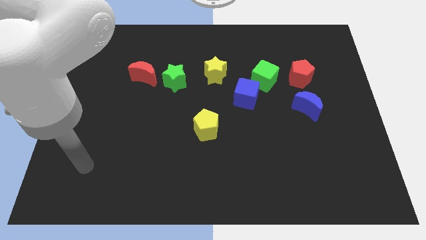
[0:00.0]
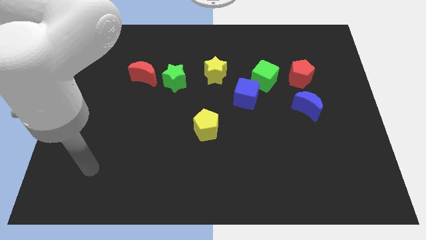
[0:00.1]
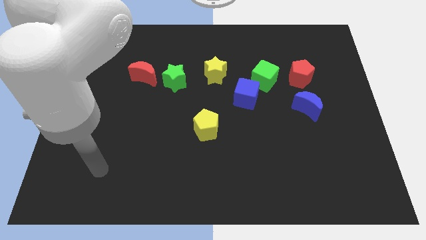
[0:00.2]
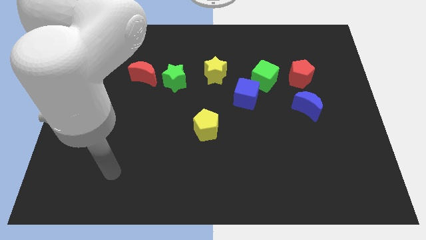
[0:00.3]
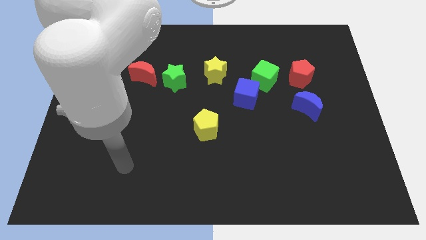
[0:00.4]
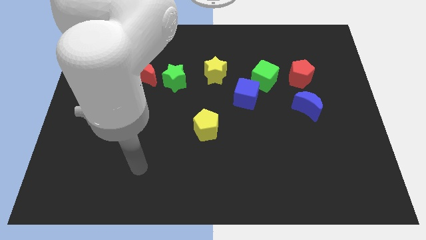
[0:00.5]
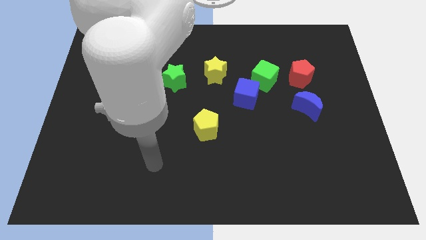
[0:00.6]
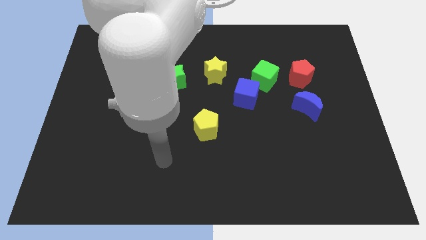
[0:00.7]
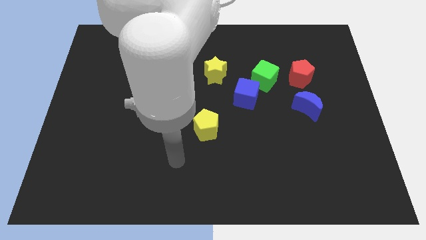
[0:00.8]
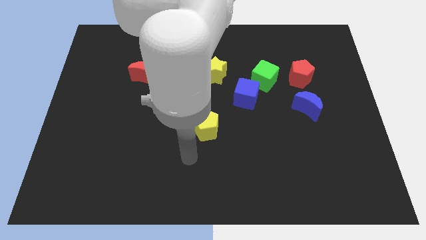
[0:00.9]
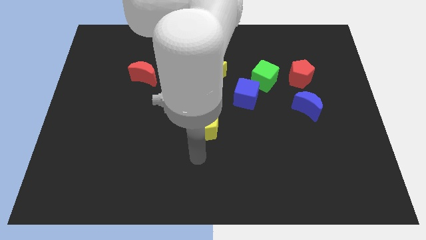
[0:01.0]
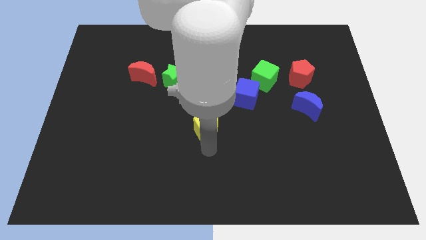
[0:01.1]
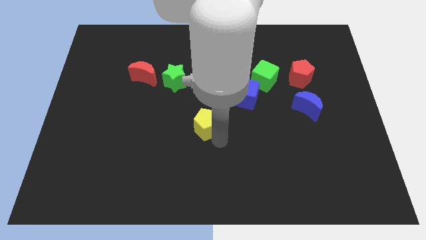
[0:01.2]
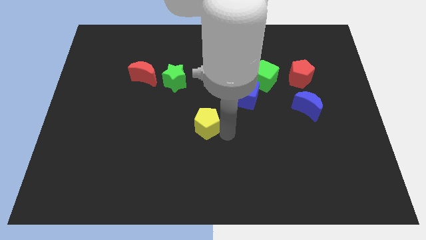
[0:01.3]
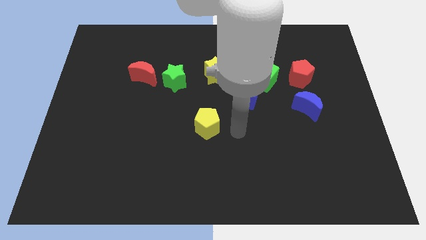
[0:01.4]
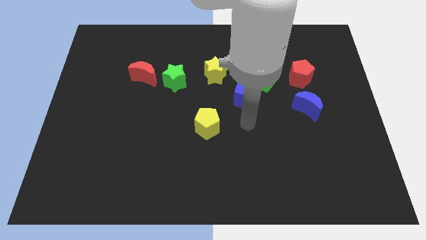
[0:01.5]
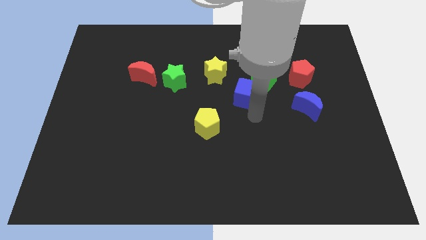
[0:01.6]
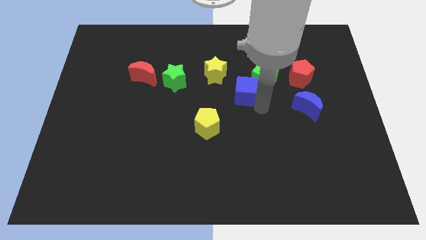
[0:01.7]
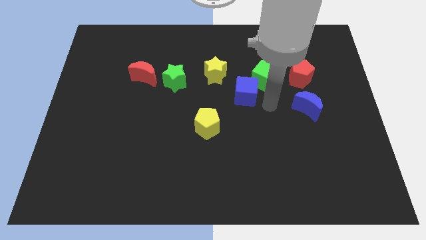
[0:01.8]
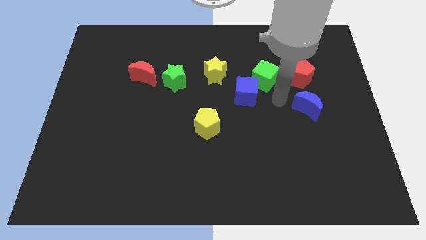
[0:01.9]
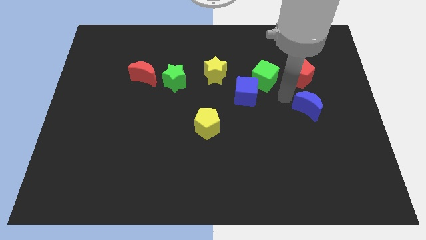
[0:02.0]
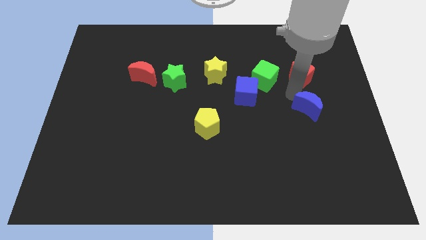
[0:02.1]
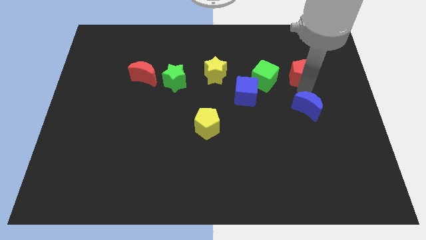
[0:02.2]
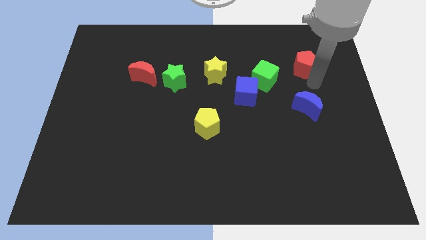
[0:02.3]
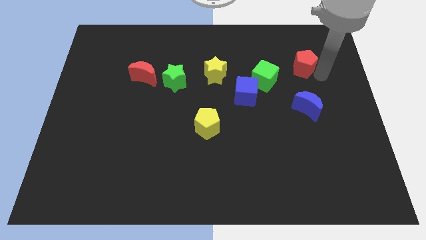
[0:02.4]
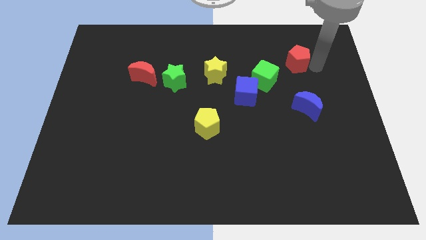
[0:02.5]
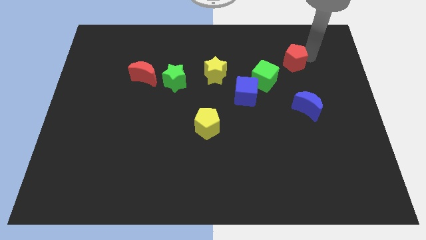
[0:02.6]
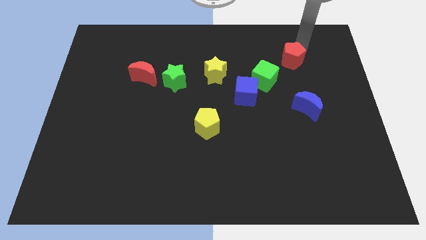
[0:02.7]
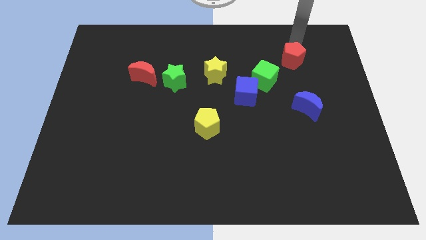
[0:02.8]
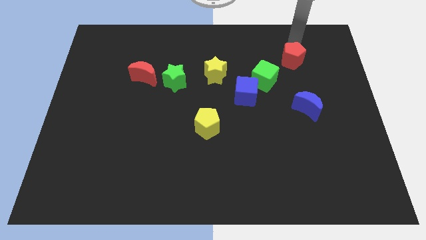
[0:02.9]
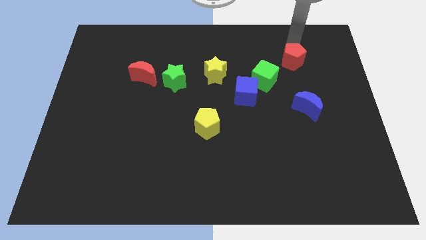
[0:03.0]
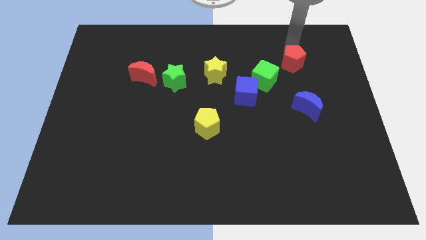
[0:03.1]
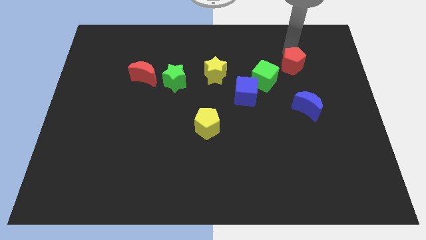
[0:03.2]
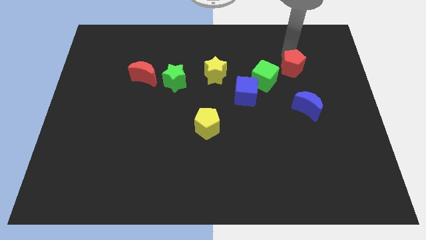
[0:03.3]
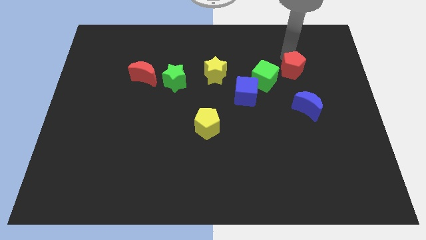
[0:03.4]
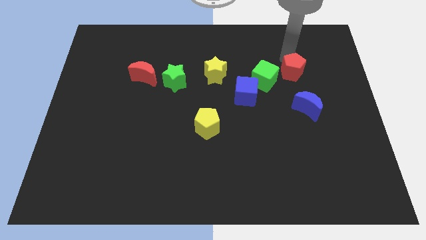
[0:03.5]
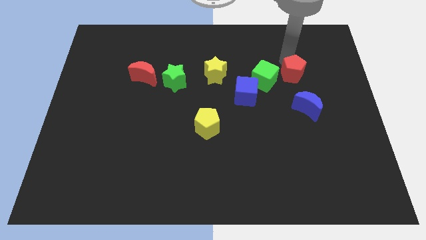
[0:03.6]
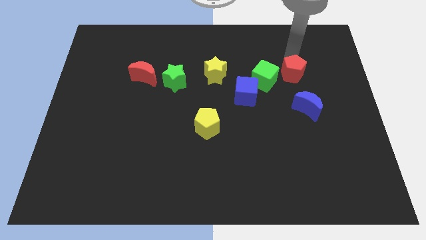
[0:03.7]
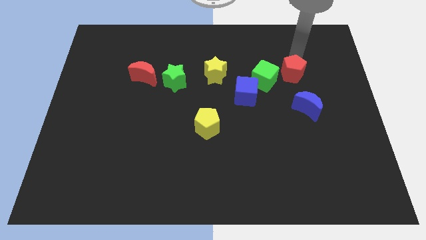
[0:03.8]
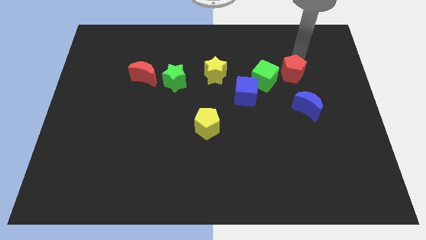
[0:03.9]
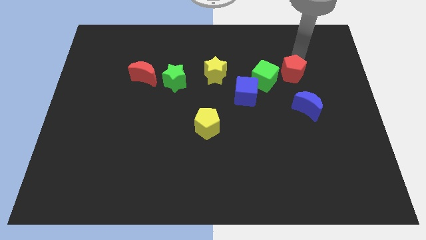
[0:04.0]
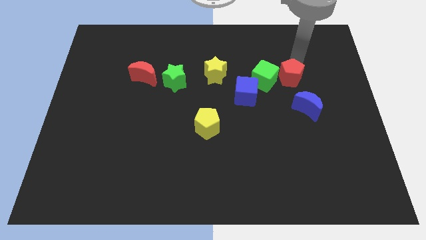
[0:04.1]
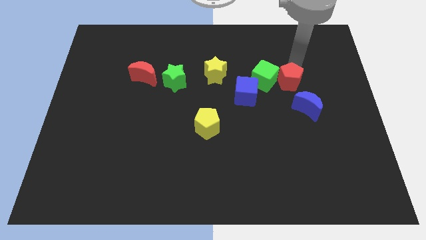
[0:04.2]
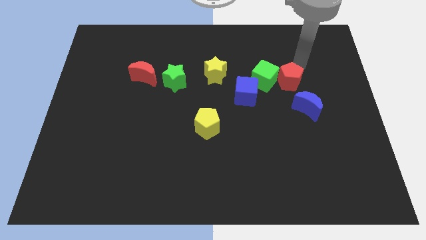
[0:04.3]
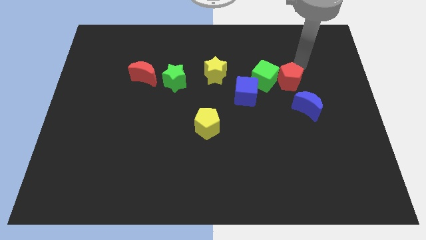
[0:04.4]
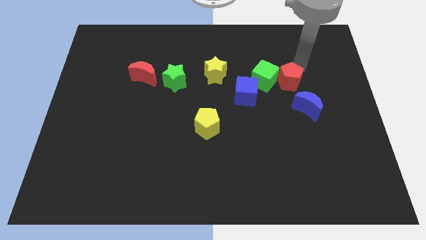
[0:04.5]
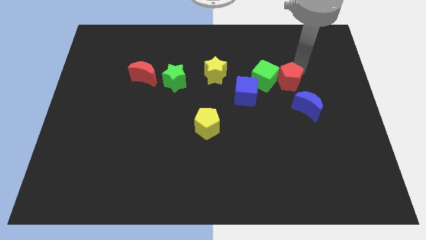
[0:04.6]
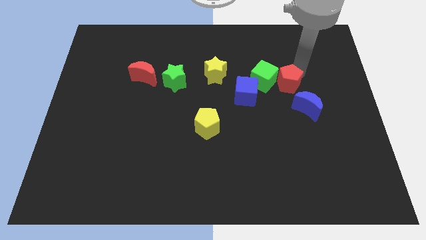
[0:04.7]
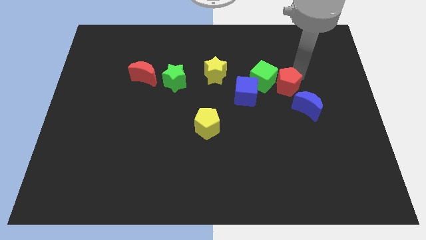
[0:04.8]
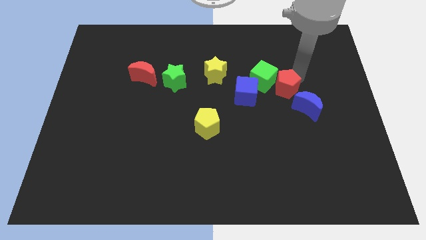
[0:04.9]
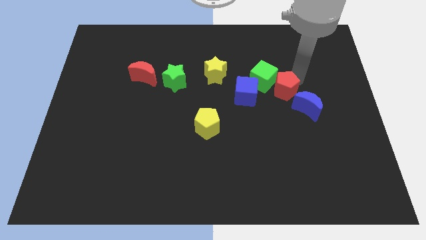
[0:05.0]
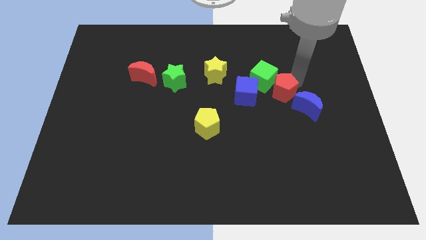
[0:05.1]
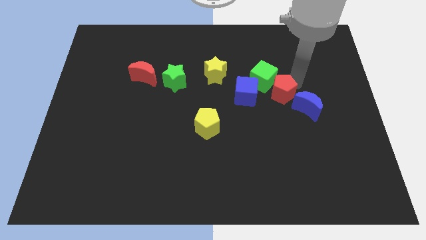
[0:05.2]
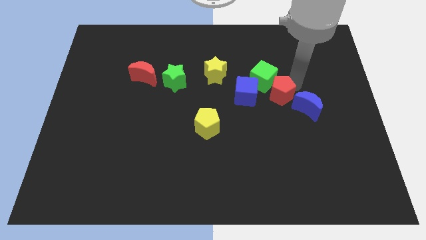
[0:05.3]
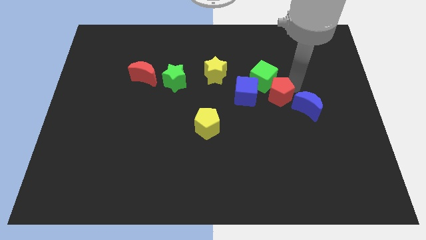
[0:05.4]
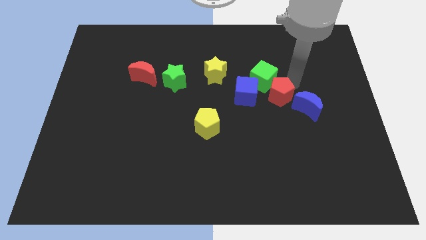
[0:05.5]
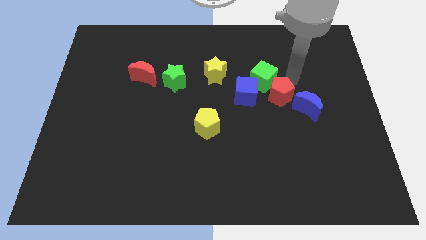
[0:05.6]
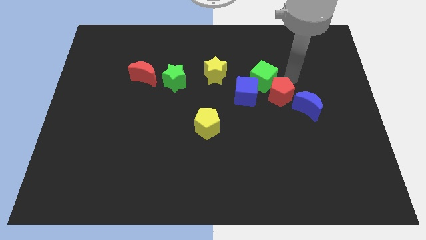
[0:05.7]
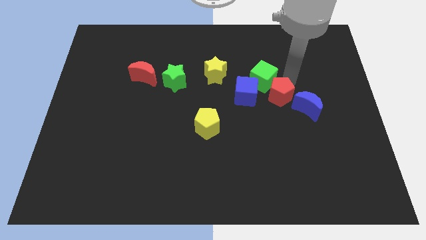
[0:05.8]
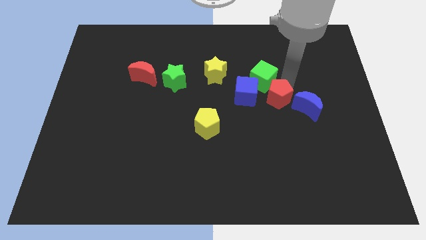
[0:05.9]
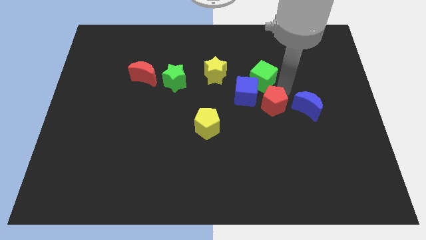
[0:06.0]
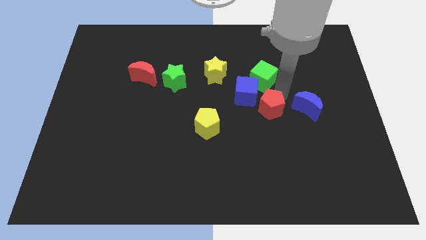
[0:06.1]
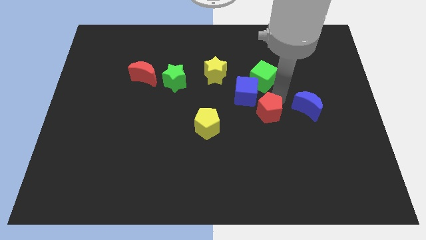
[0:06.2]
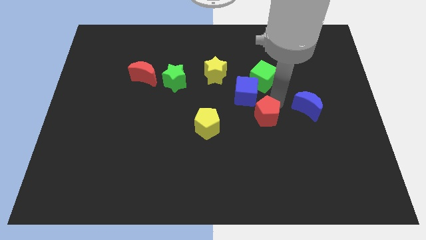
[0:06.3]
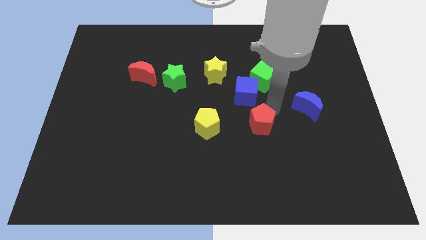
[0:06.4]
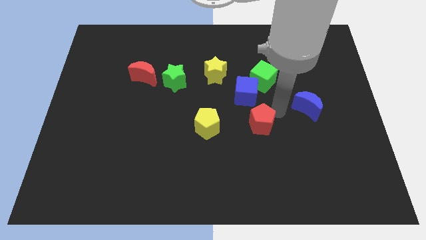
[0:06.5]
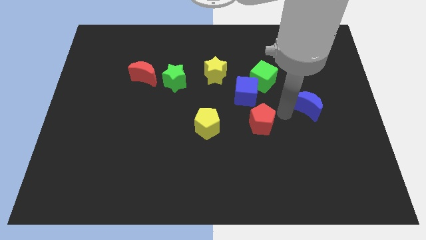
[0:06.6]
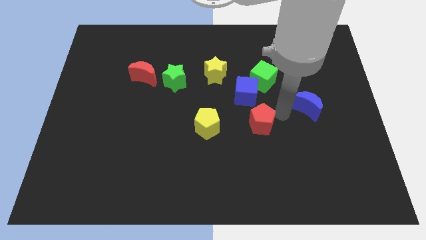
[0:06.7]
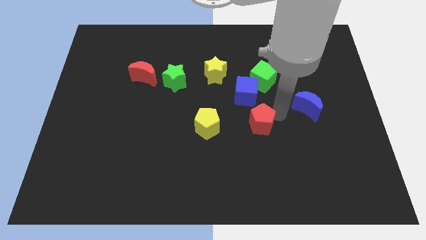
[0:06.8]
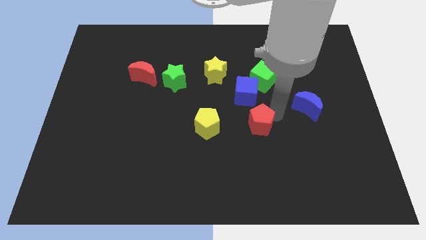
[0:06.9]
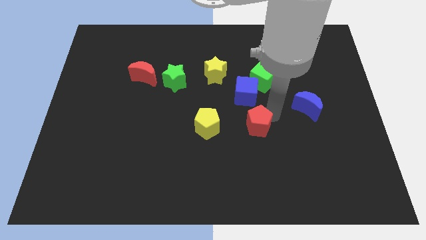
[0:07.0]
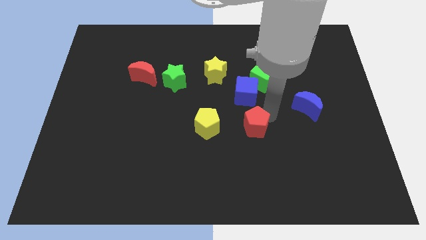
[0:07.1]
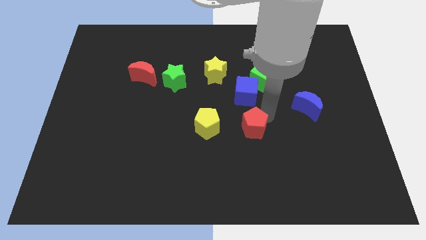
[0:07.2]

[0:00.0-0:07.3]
push the red pentagon down and left diagonally

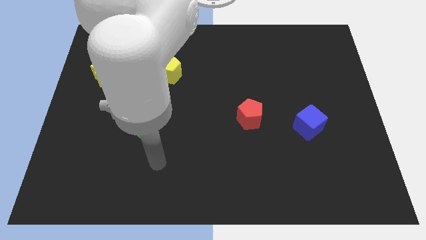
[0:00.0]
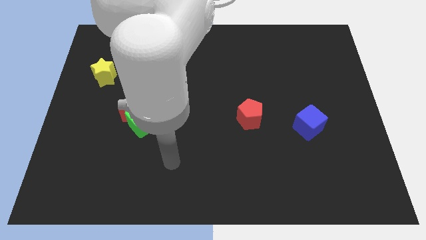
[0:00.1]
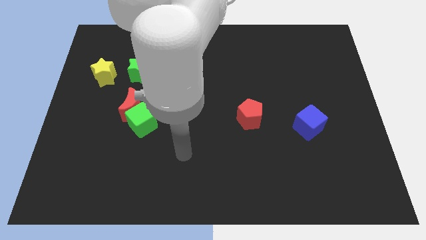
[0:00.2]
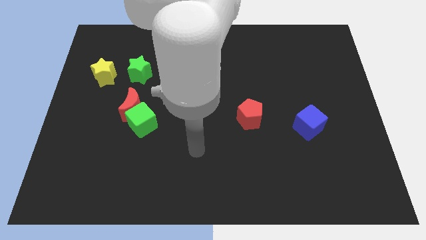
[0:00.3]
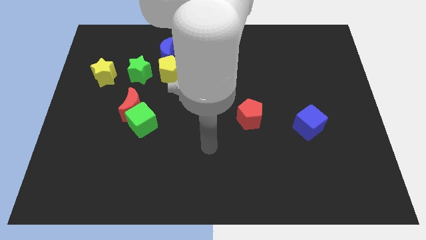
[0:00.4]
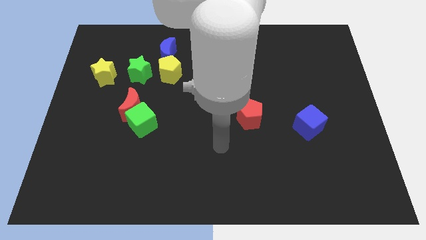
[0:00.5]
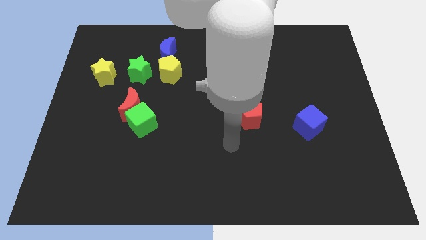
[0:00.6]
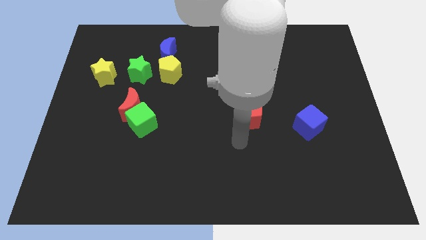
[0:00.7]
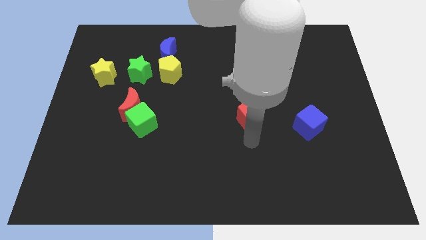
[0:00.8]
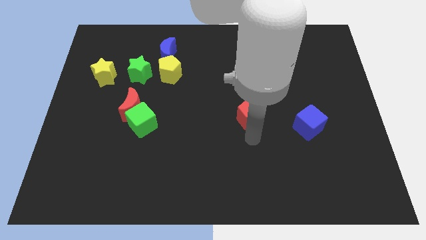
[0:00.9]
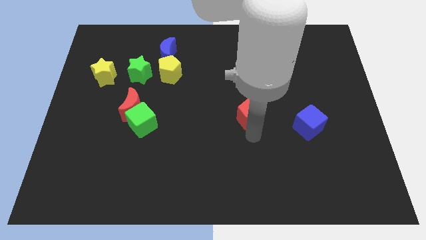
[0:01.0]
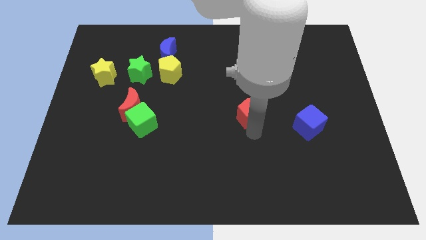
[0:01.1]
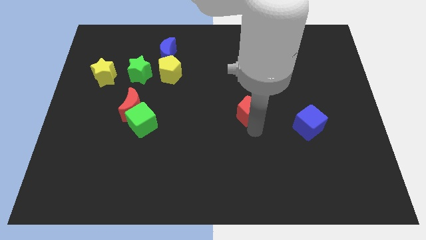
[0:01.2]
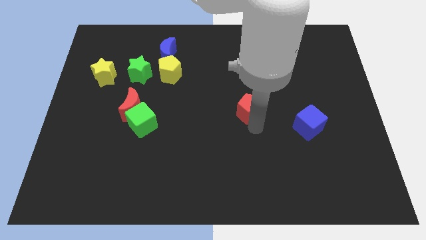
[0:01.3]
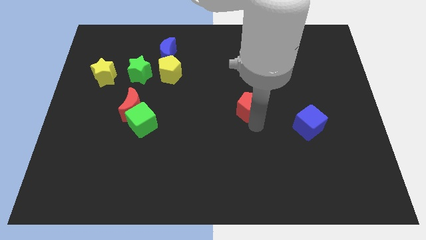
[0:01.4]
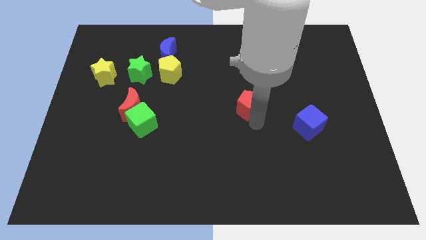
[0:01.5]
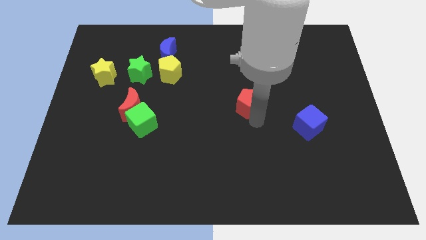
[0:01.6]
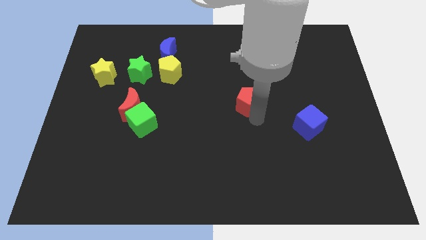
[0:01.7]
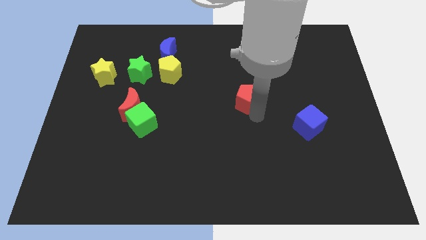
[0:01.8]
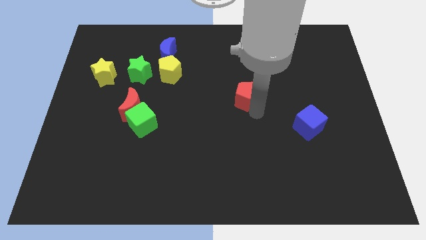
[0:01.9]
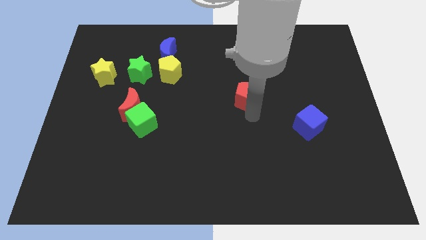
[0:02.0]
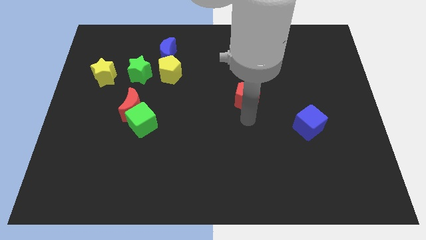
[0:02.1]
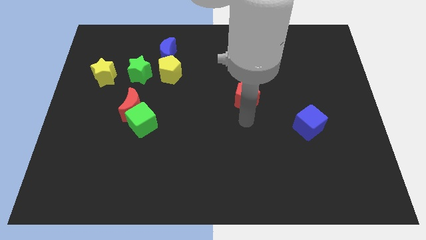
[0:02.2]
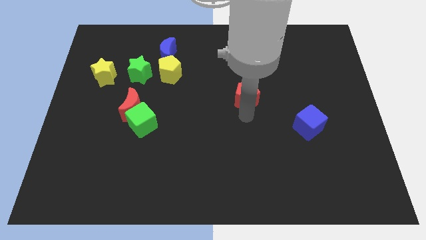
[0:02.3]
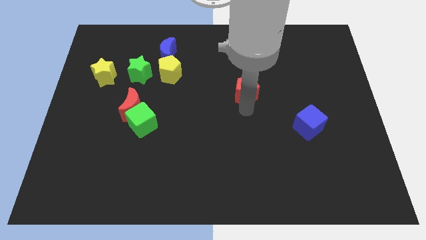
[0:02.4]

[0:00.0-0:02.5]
move the red pentagon up somewhat
